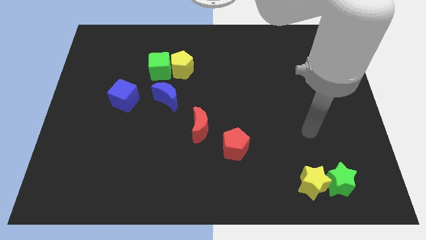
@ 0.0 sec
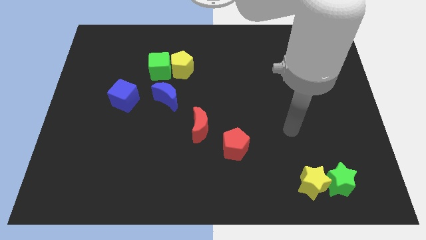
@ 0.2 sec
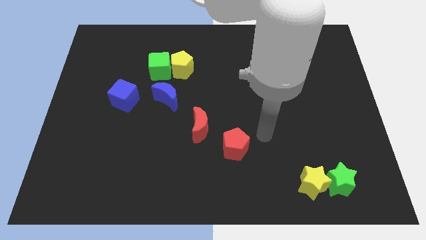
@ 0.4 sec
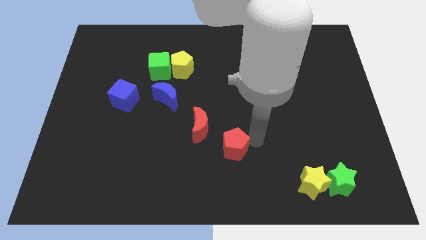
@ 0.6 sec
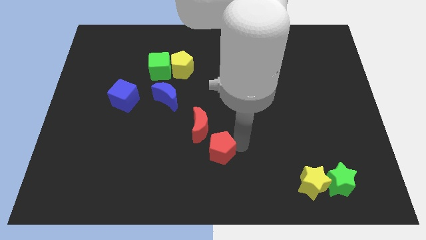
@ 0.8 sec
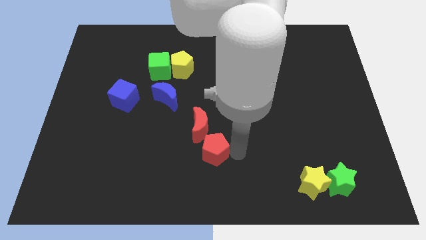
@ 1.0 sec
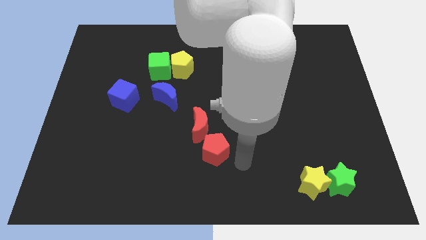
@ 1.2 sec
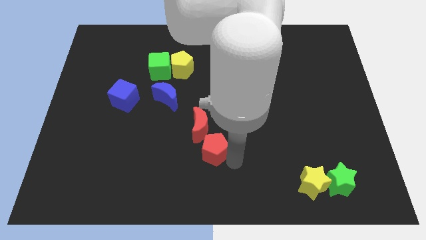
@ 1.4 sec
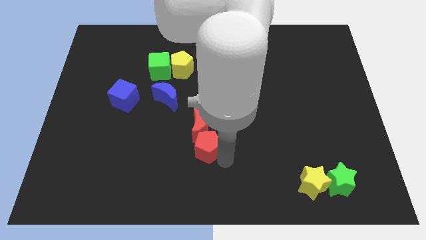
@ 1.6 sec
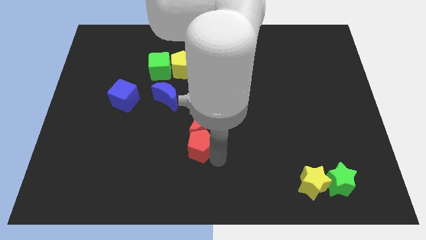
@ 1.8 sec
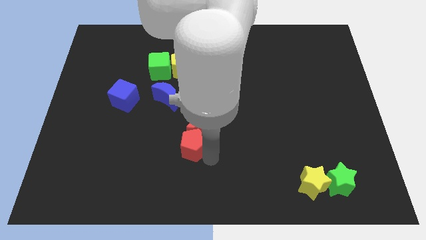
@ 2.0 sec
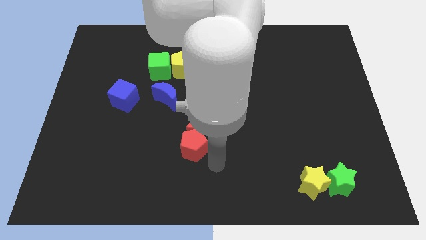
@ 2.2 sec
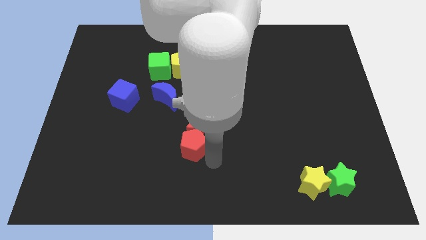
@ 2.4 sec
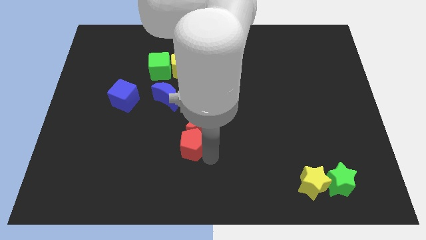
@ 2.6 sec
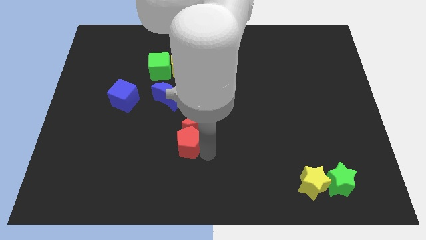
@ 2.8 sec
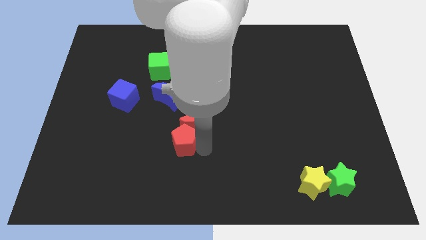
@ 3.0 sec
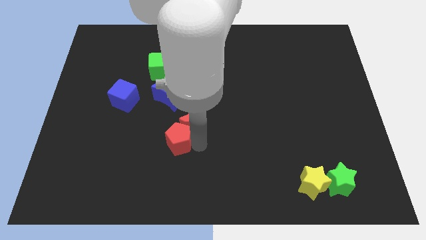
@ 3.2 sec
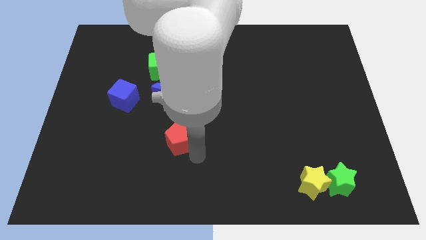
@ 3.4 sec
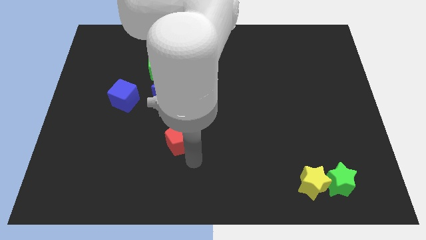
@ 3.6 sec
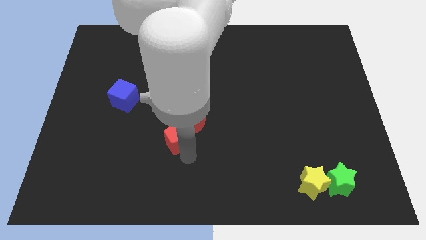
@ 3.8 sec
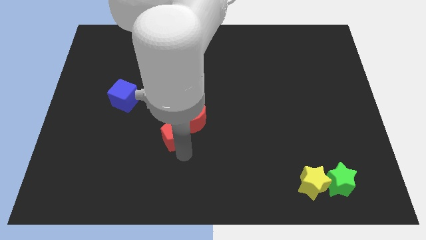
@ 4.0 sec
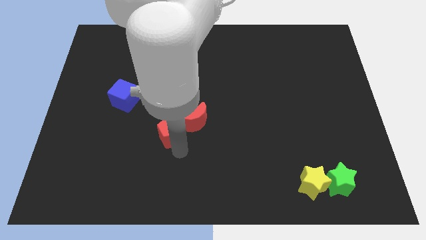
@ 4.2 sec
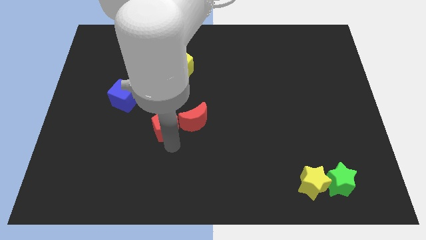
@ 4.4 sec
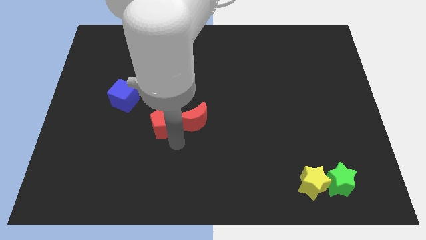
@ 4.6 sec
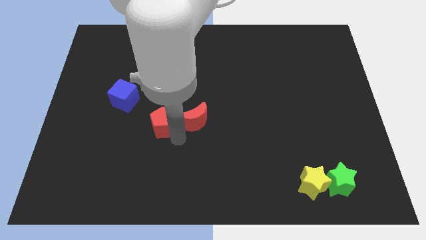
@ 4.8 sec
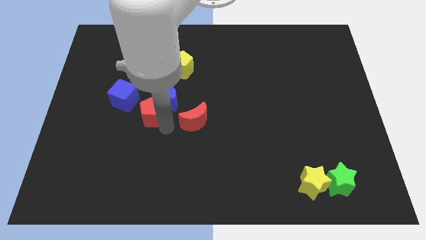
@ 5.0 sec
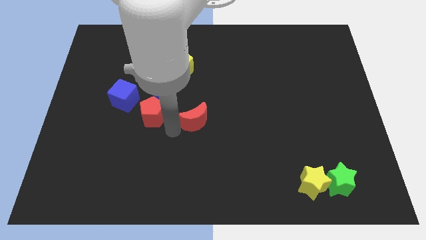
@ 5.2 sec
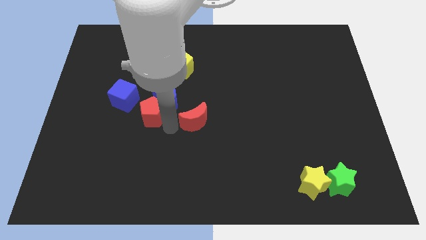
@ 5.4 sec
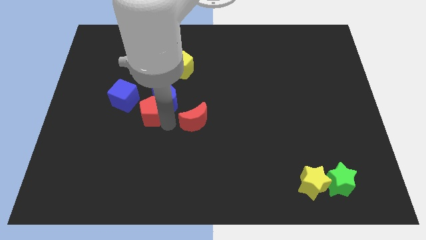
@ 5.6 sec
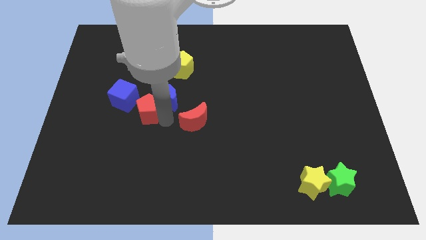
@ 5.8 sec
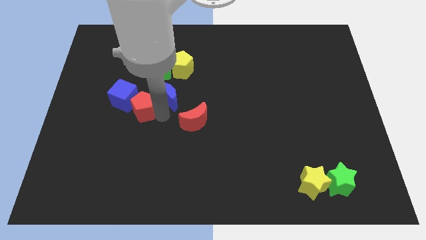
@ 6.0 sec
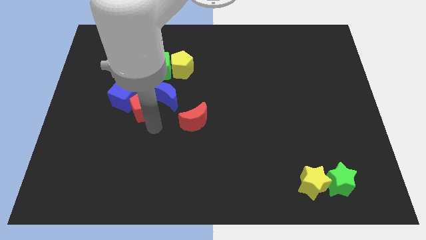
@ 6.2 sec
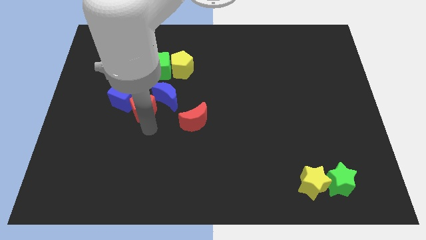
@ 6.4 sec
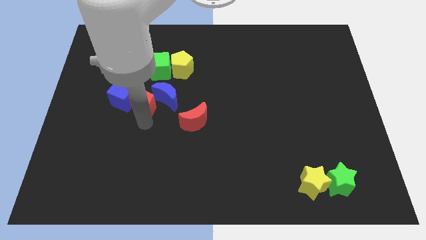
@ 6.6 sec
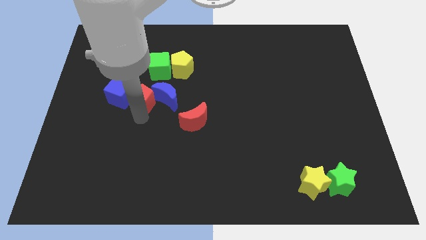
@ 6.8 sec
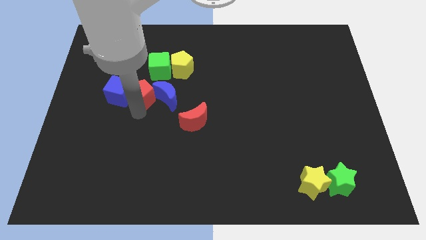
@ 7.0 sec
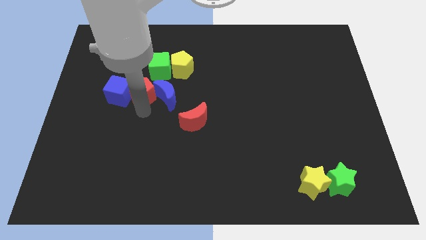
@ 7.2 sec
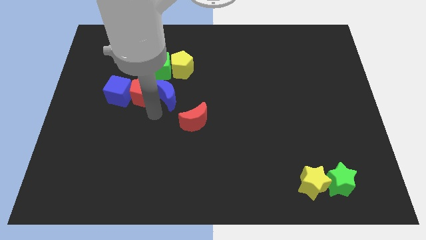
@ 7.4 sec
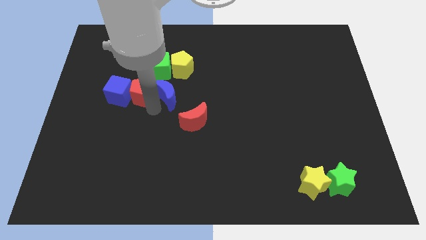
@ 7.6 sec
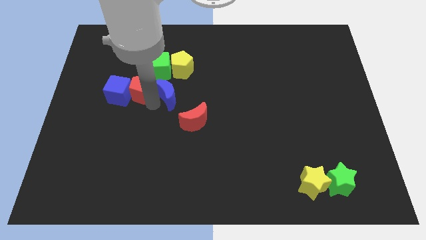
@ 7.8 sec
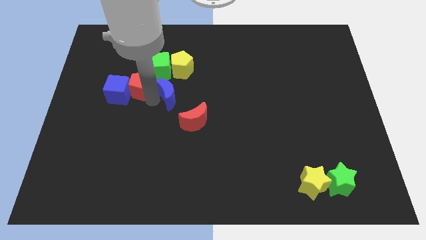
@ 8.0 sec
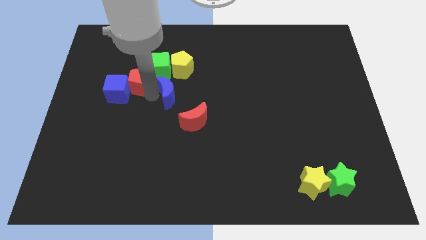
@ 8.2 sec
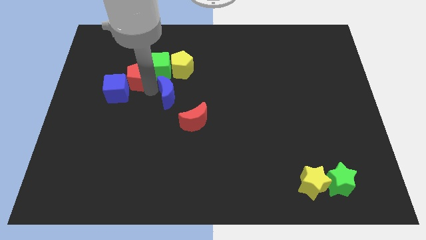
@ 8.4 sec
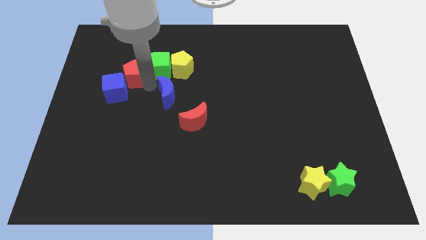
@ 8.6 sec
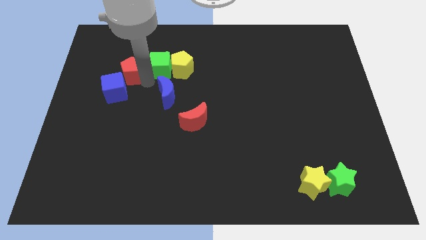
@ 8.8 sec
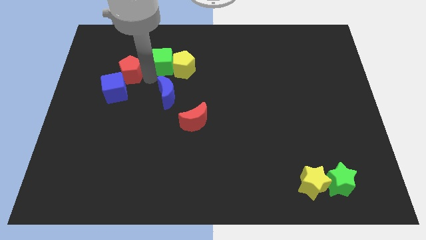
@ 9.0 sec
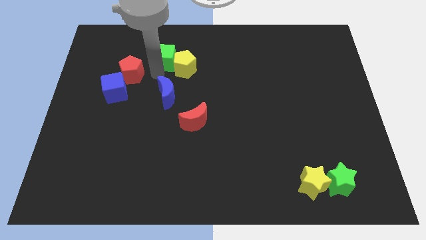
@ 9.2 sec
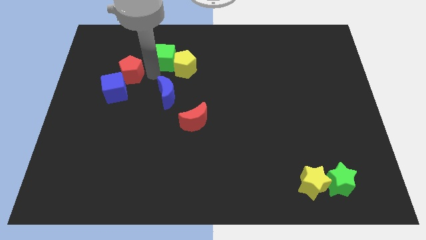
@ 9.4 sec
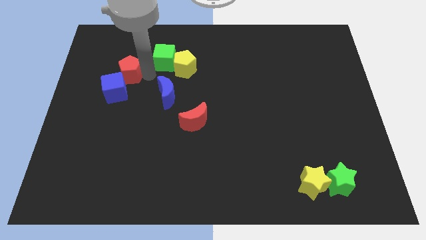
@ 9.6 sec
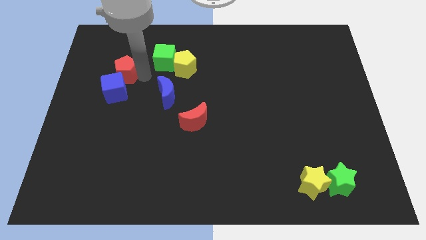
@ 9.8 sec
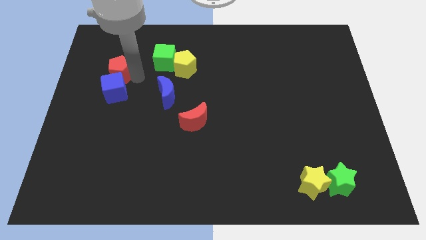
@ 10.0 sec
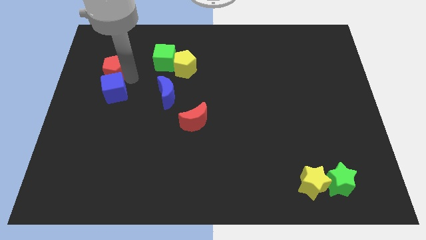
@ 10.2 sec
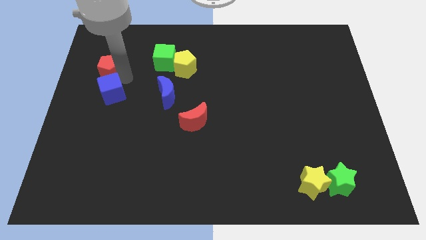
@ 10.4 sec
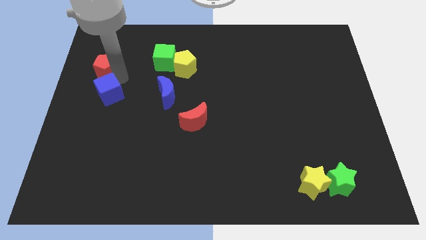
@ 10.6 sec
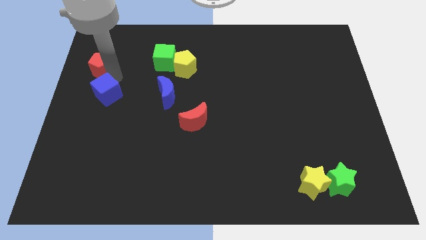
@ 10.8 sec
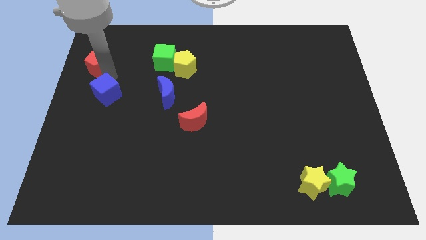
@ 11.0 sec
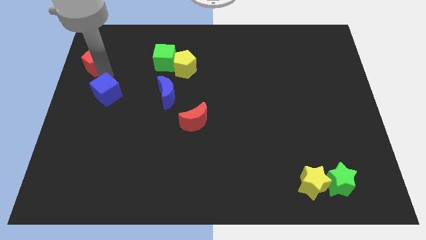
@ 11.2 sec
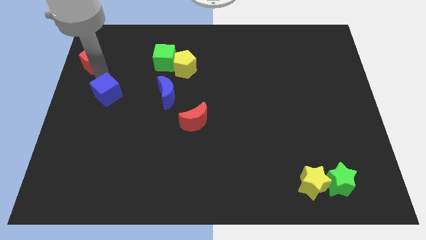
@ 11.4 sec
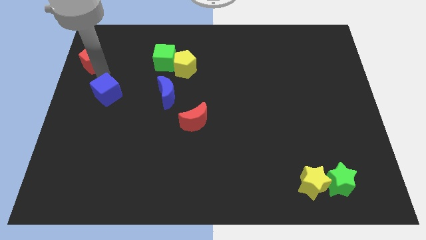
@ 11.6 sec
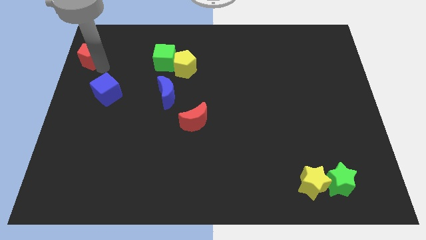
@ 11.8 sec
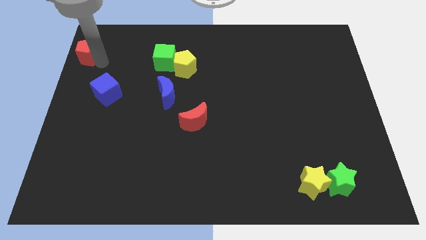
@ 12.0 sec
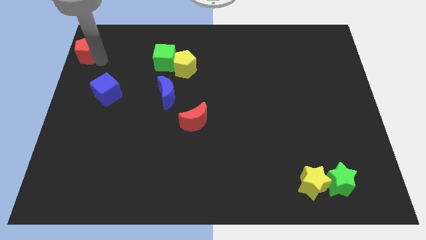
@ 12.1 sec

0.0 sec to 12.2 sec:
push the red pentagon to the upper left corner

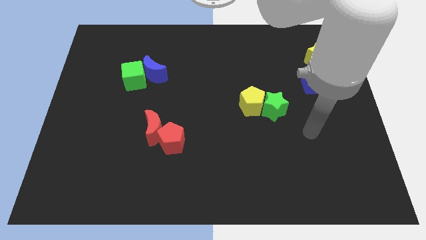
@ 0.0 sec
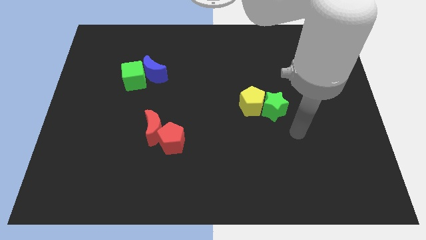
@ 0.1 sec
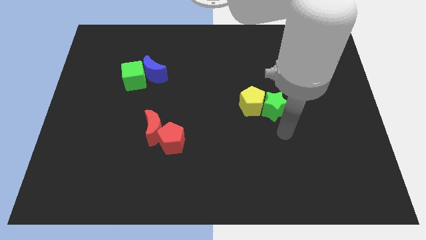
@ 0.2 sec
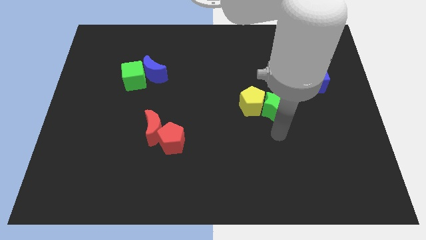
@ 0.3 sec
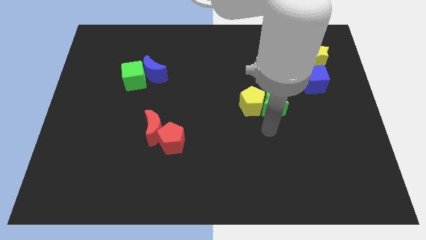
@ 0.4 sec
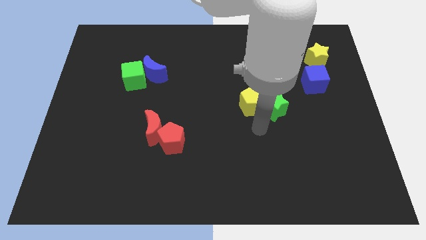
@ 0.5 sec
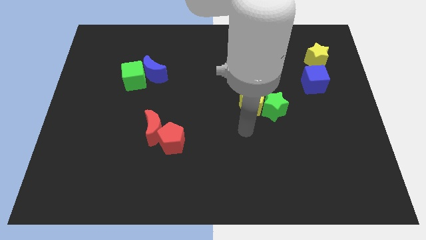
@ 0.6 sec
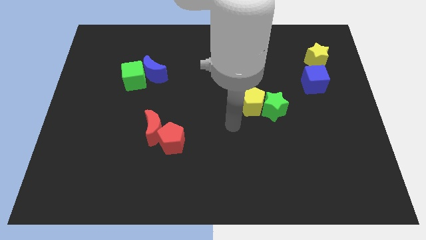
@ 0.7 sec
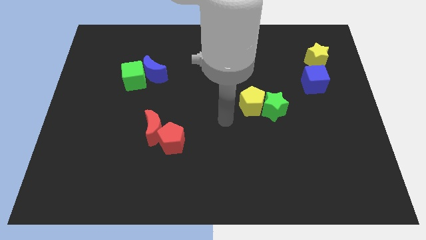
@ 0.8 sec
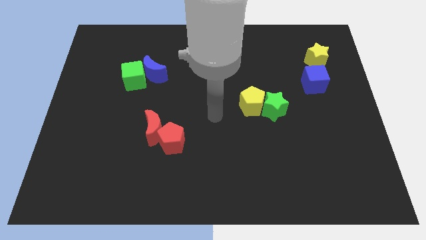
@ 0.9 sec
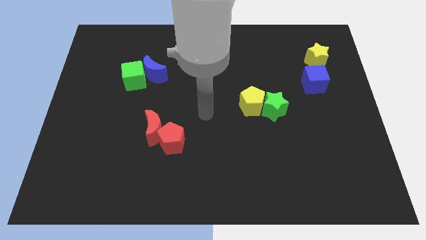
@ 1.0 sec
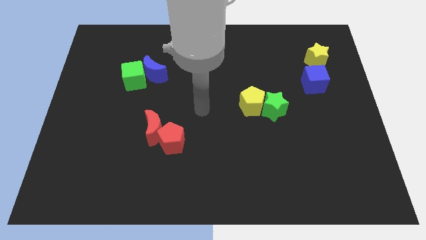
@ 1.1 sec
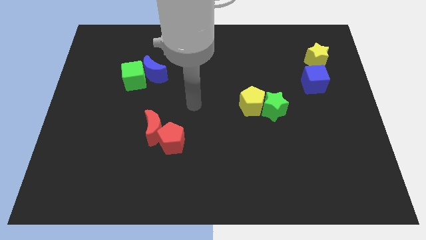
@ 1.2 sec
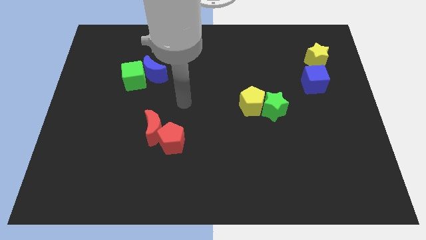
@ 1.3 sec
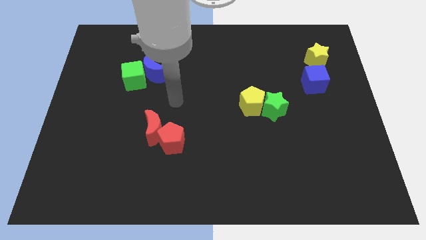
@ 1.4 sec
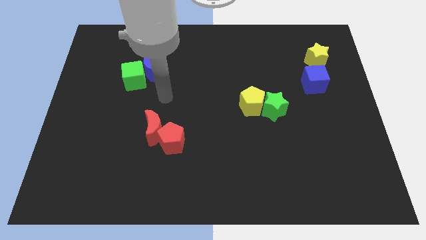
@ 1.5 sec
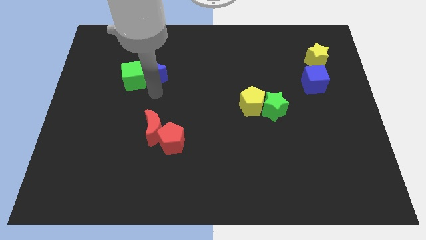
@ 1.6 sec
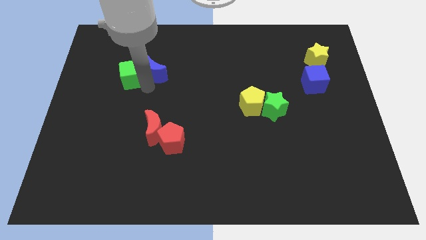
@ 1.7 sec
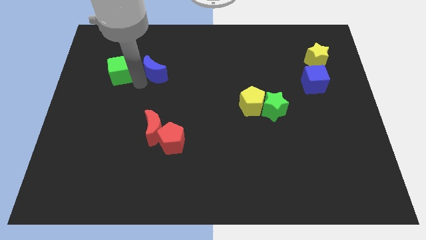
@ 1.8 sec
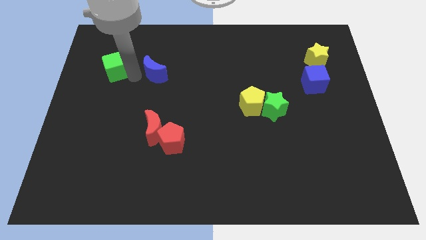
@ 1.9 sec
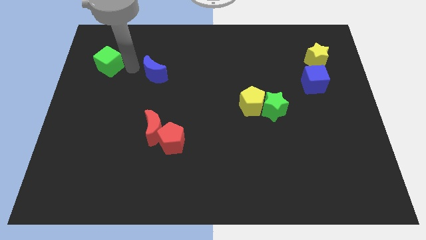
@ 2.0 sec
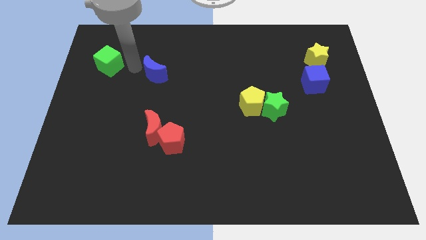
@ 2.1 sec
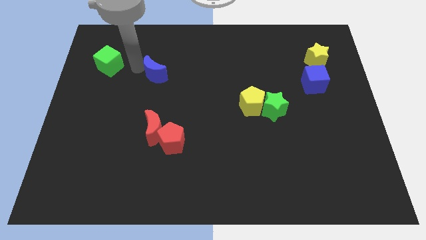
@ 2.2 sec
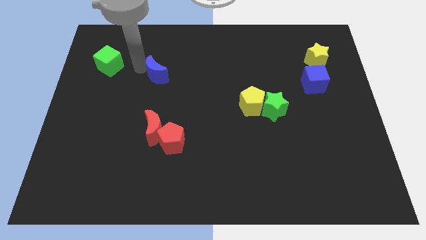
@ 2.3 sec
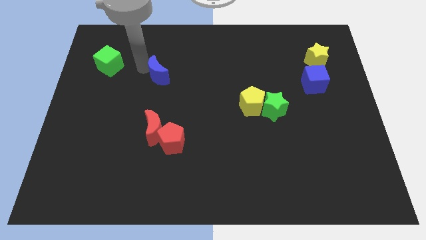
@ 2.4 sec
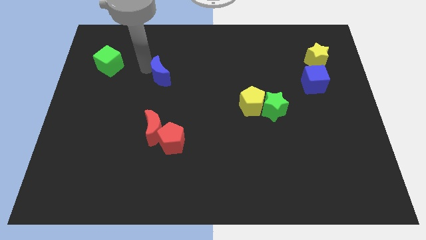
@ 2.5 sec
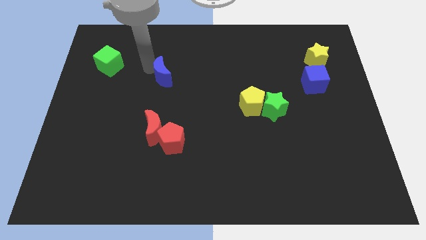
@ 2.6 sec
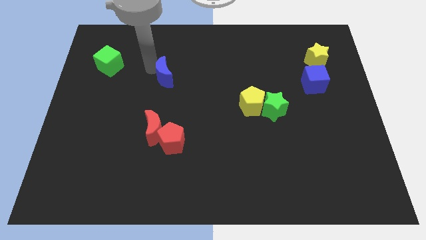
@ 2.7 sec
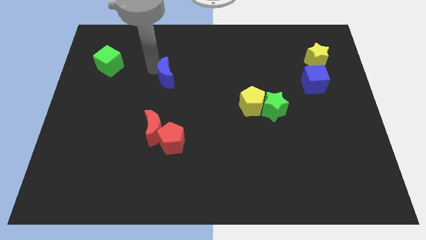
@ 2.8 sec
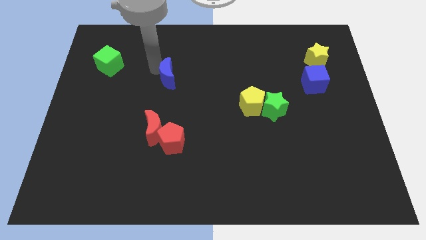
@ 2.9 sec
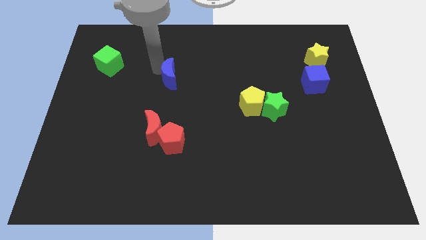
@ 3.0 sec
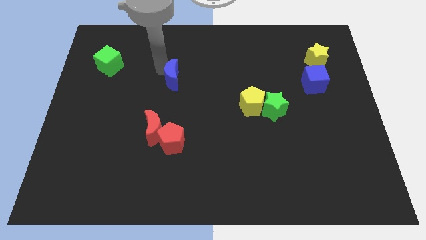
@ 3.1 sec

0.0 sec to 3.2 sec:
put the blue moon to the middle of the board
